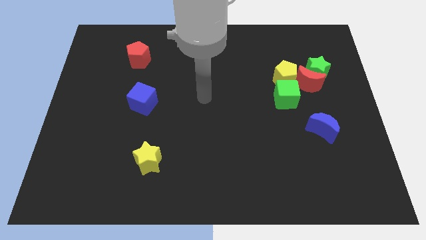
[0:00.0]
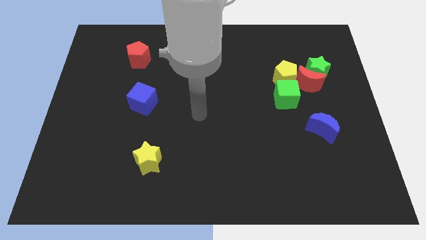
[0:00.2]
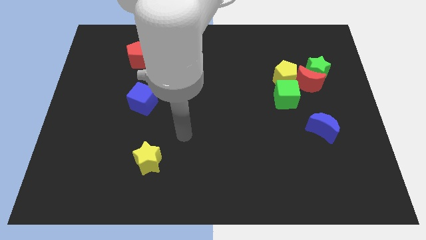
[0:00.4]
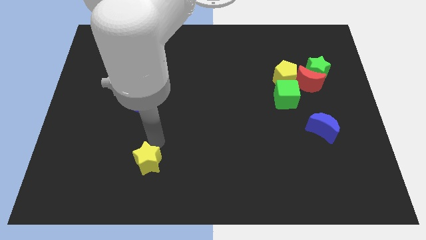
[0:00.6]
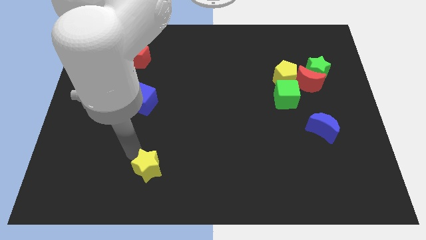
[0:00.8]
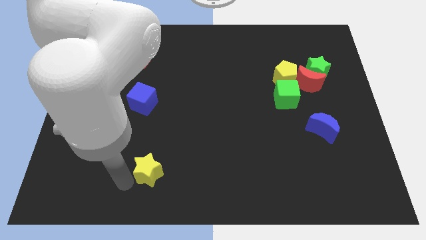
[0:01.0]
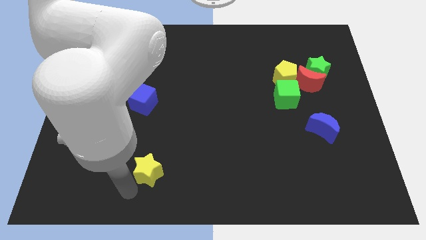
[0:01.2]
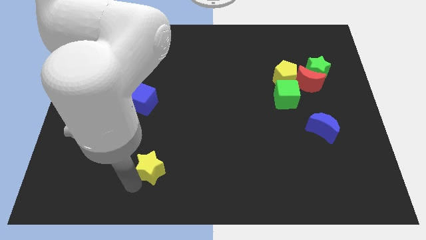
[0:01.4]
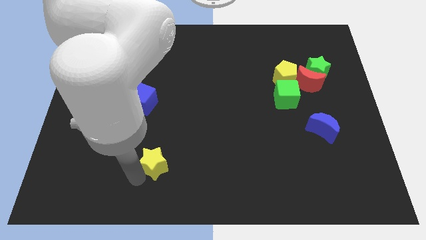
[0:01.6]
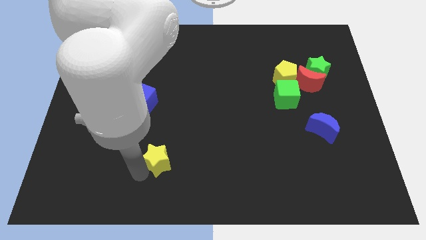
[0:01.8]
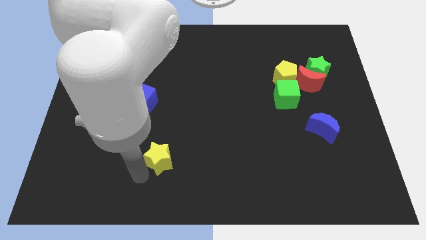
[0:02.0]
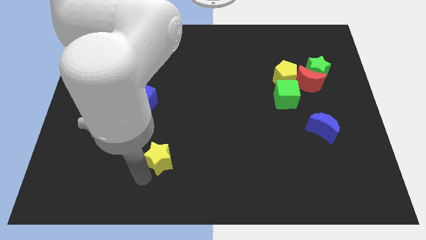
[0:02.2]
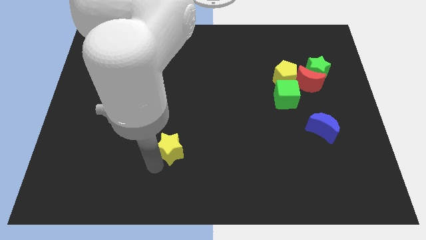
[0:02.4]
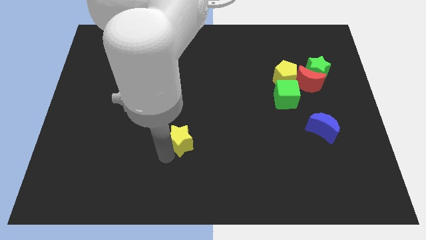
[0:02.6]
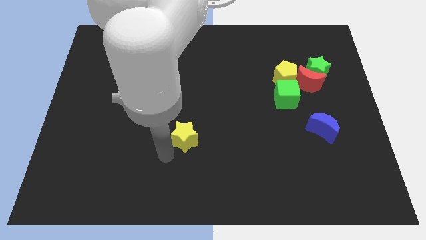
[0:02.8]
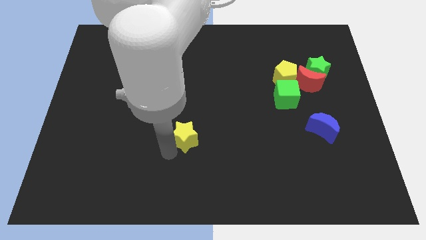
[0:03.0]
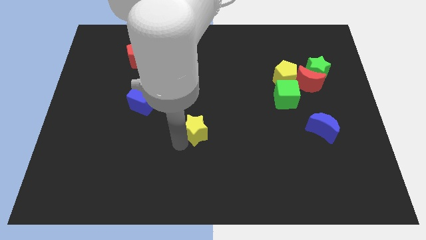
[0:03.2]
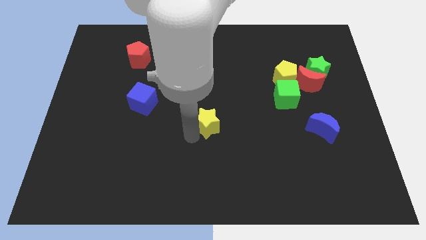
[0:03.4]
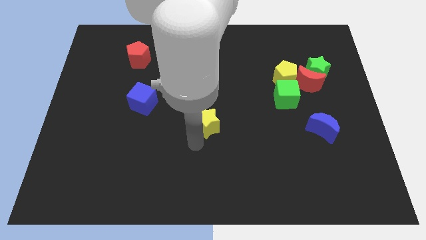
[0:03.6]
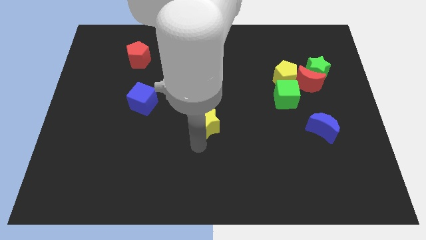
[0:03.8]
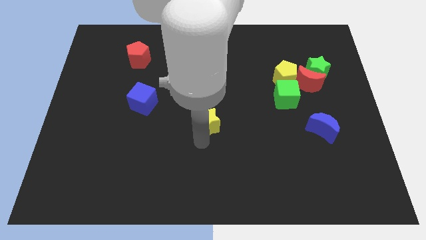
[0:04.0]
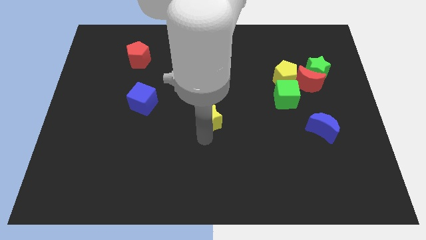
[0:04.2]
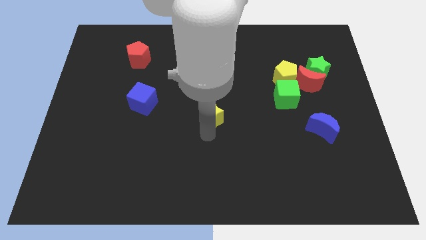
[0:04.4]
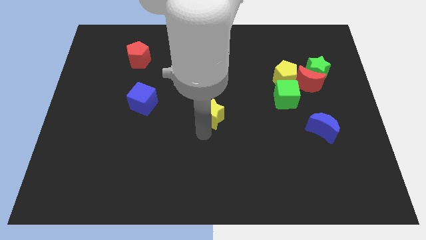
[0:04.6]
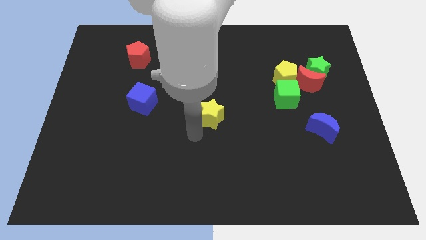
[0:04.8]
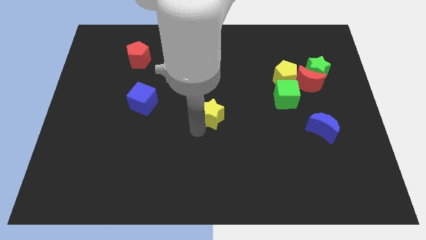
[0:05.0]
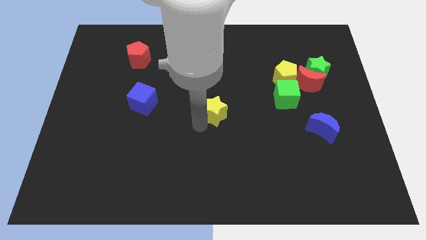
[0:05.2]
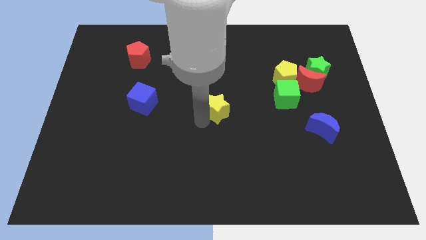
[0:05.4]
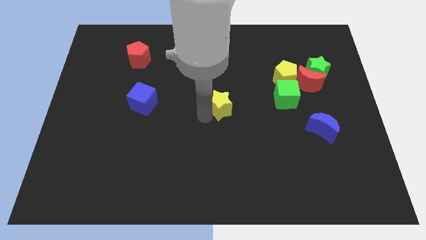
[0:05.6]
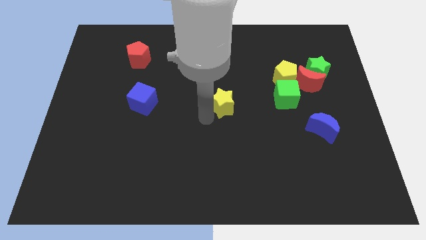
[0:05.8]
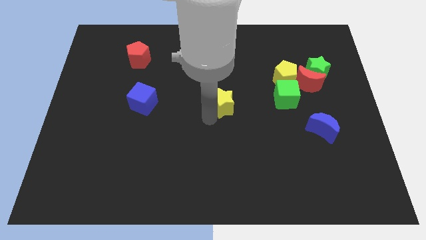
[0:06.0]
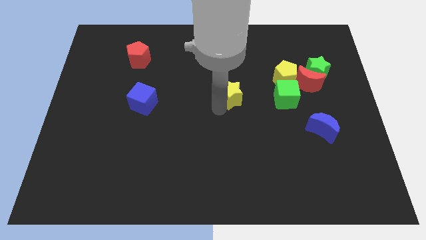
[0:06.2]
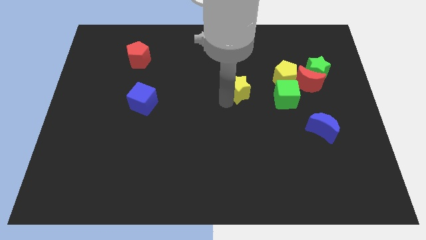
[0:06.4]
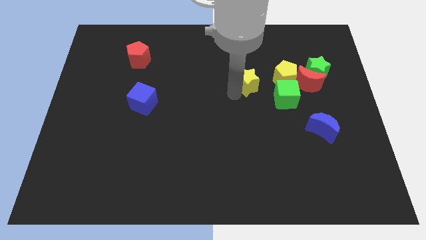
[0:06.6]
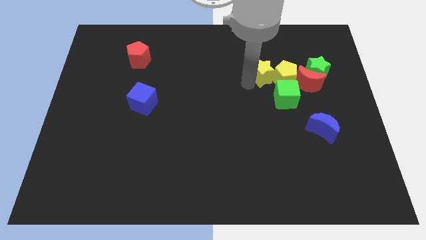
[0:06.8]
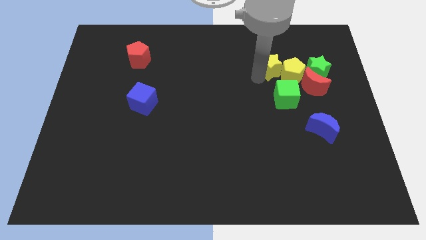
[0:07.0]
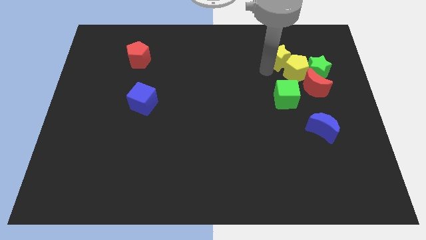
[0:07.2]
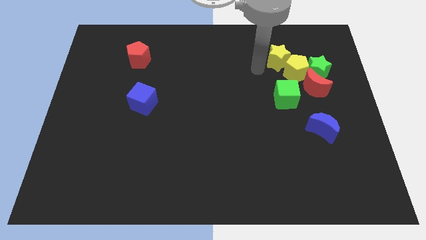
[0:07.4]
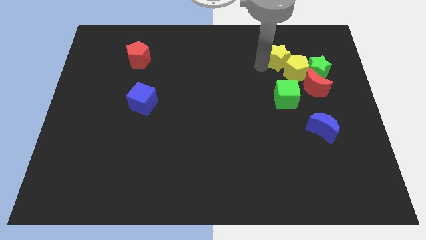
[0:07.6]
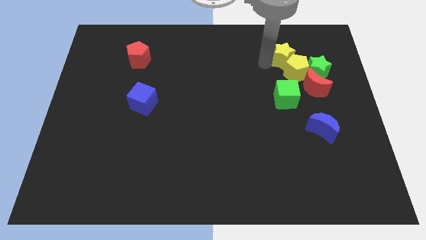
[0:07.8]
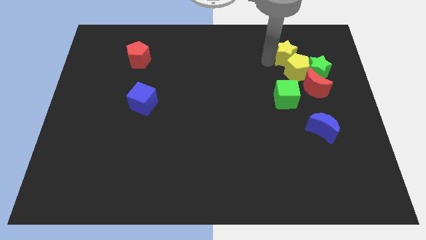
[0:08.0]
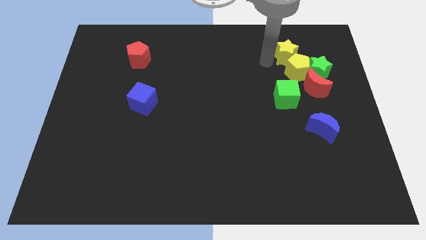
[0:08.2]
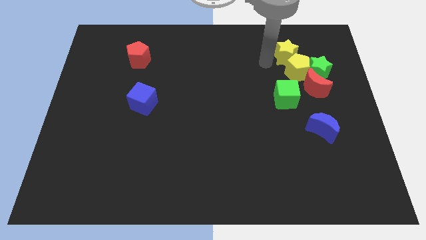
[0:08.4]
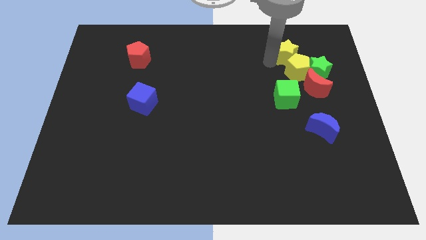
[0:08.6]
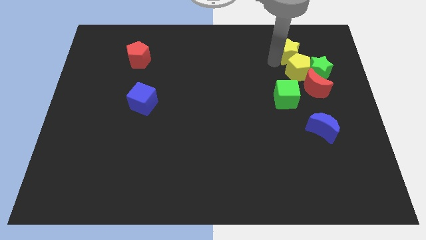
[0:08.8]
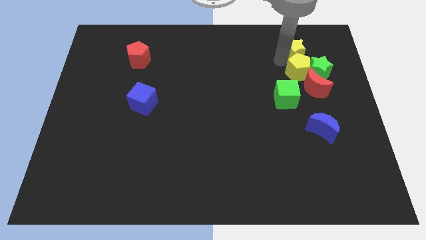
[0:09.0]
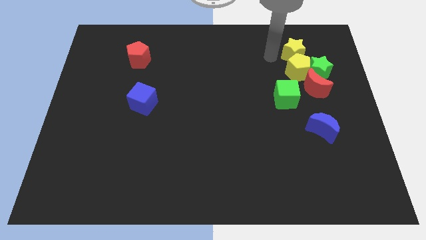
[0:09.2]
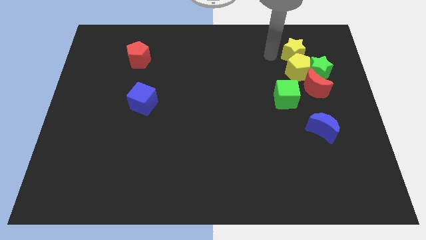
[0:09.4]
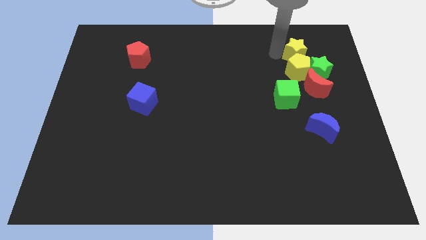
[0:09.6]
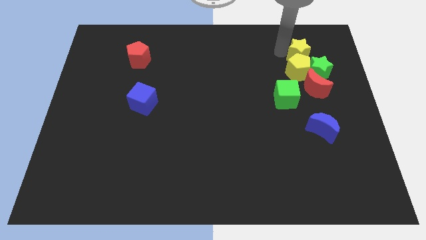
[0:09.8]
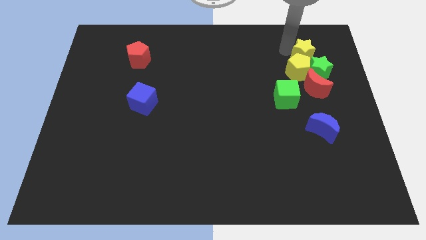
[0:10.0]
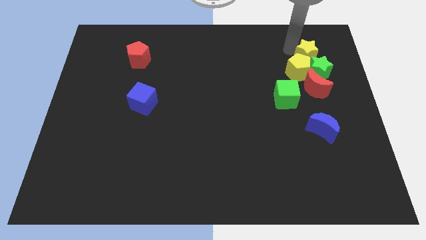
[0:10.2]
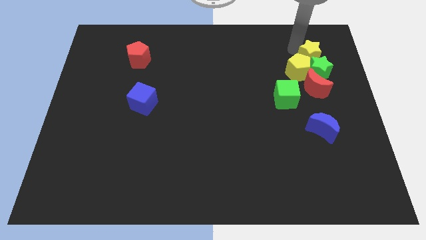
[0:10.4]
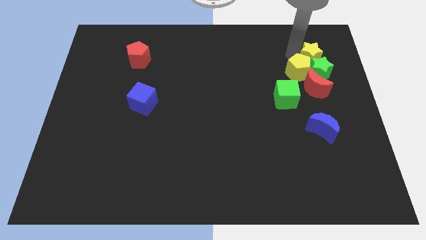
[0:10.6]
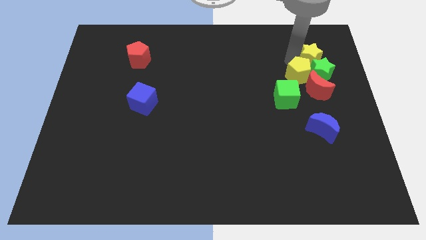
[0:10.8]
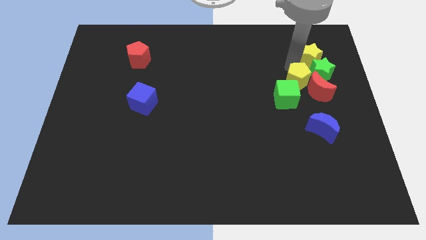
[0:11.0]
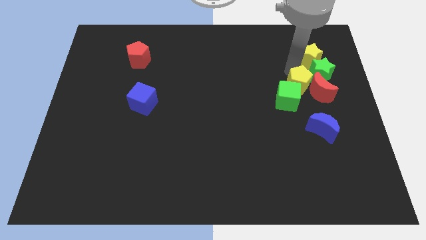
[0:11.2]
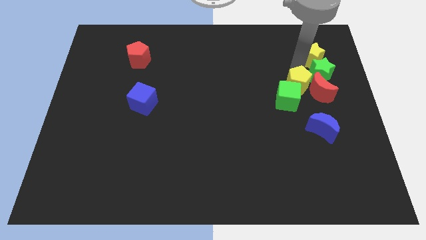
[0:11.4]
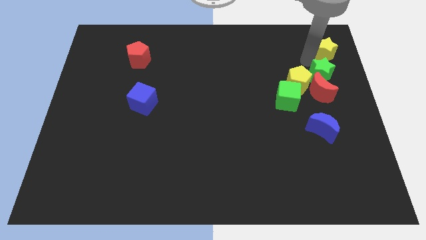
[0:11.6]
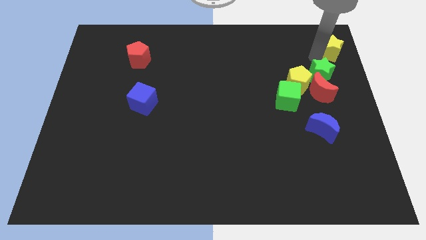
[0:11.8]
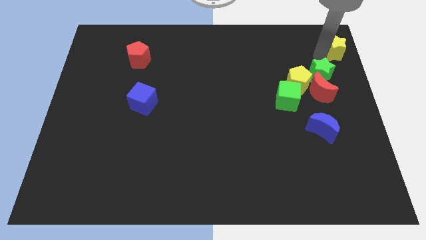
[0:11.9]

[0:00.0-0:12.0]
slide the yellow star to the top right corner

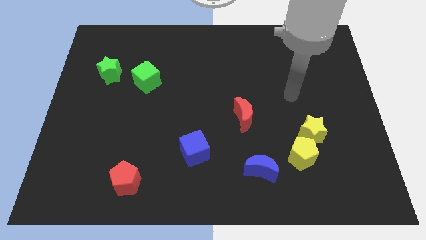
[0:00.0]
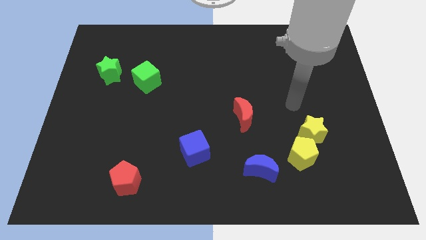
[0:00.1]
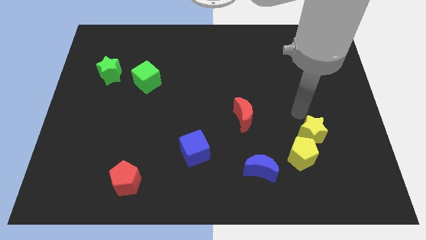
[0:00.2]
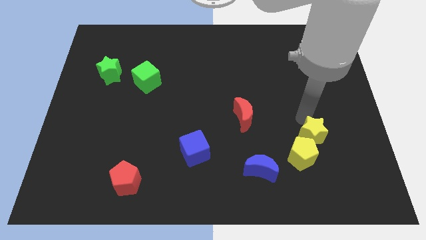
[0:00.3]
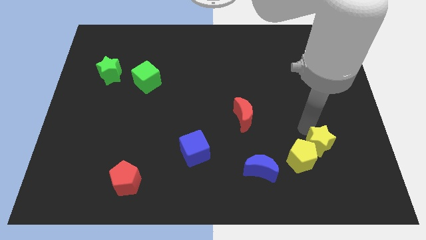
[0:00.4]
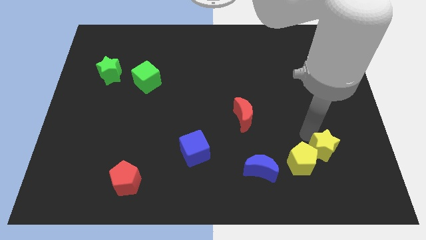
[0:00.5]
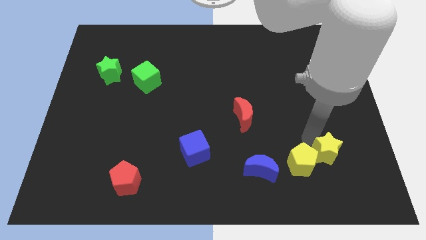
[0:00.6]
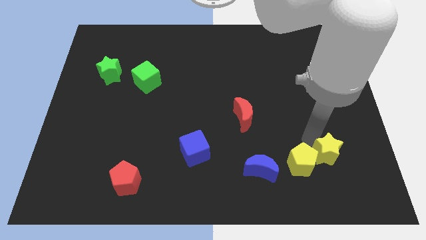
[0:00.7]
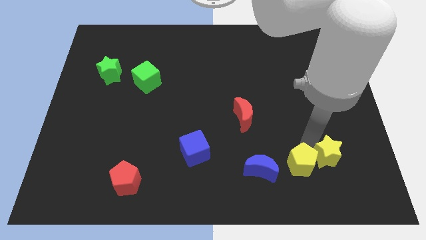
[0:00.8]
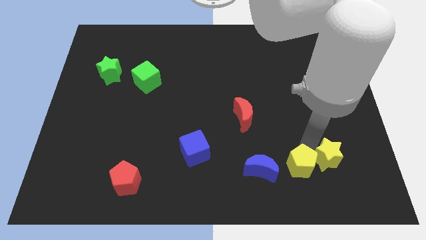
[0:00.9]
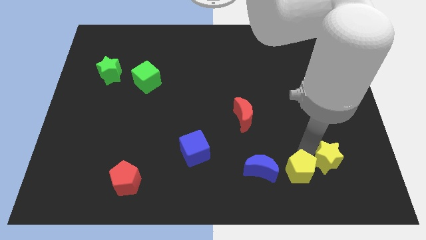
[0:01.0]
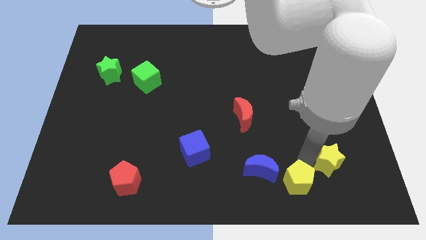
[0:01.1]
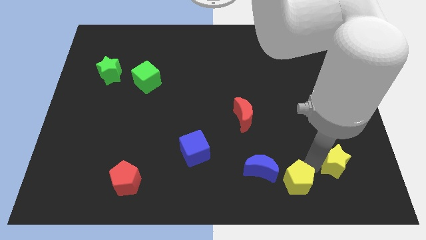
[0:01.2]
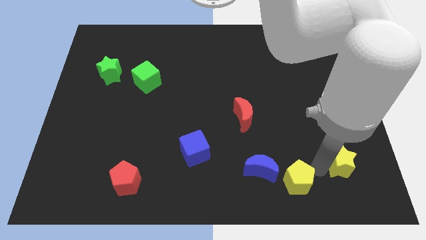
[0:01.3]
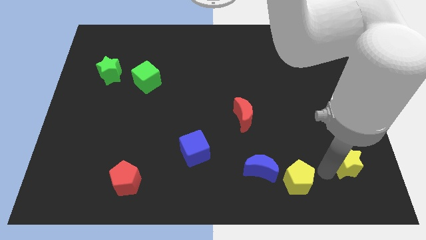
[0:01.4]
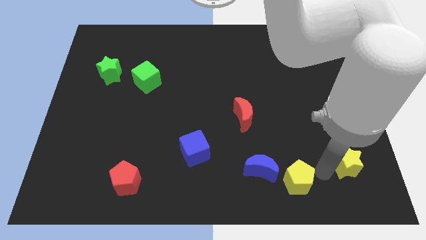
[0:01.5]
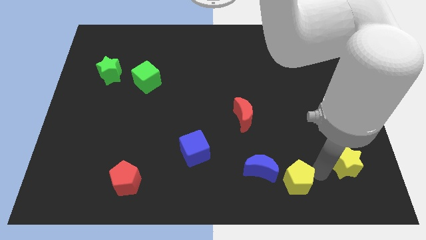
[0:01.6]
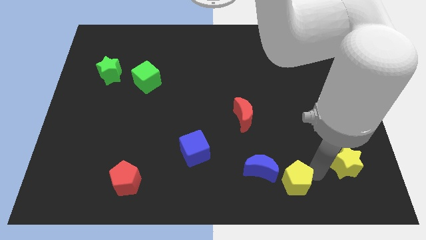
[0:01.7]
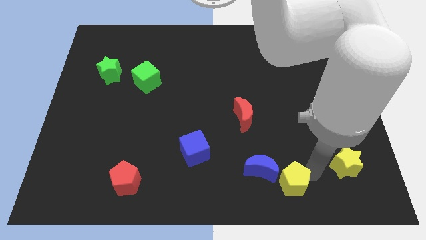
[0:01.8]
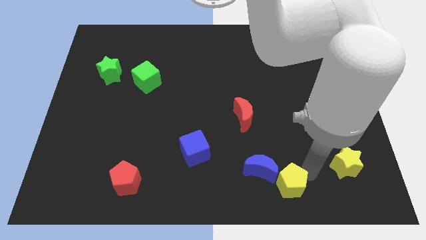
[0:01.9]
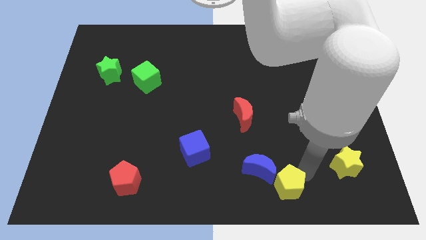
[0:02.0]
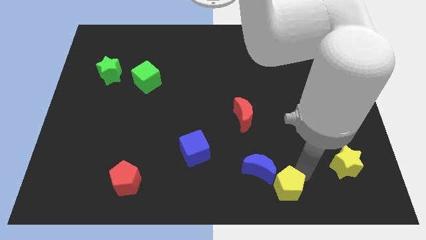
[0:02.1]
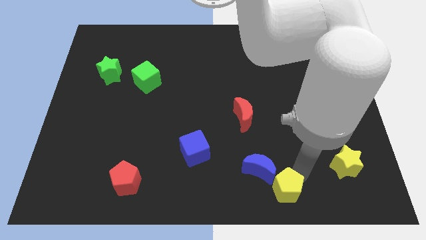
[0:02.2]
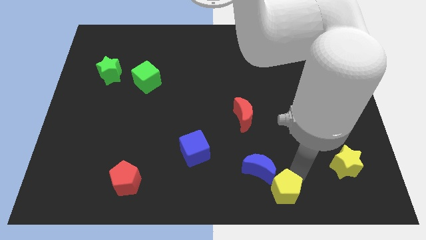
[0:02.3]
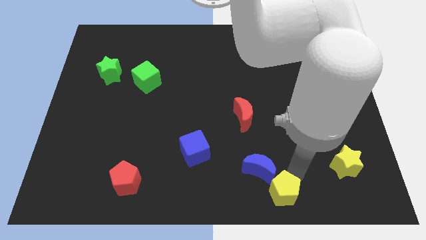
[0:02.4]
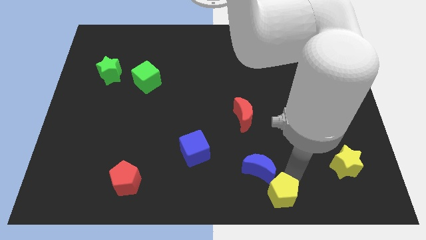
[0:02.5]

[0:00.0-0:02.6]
put the yellow pentagon to the bottom side
